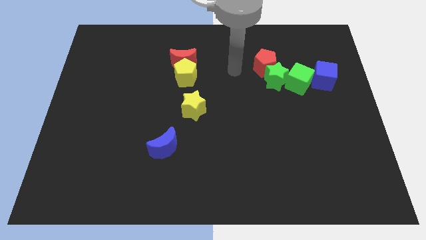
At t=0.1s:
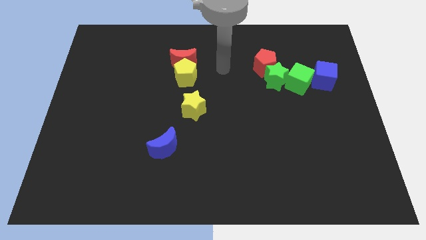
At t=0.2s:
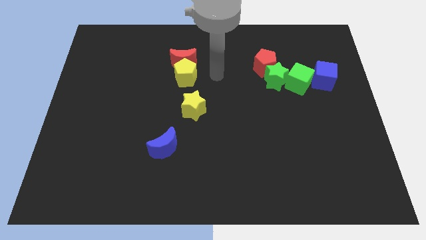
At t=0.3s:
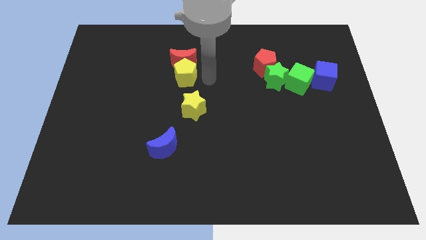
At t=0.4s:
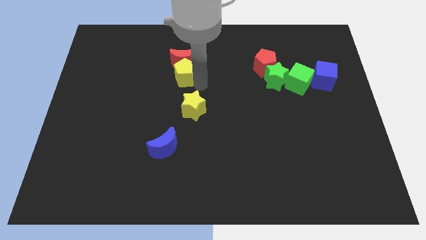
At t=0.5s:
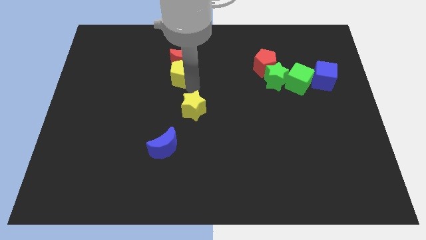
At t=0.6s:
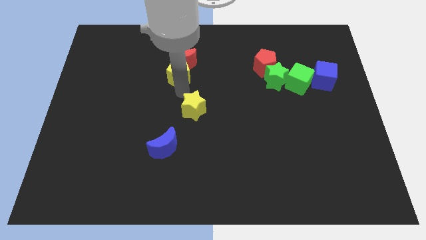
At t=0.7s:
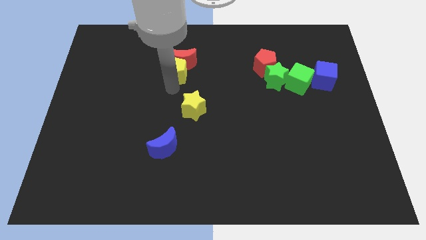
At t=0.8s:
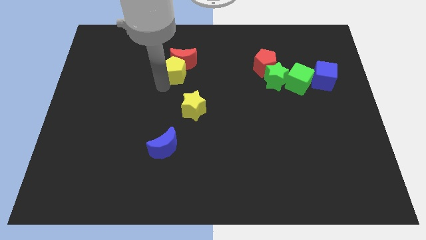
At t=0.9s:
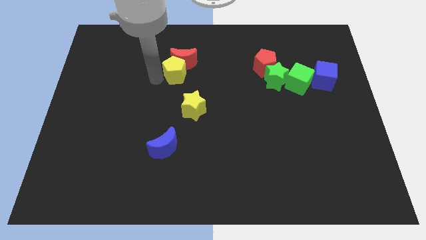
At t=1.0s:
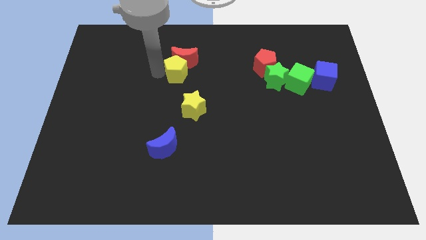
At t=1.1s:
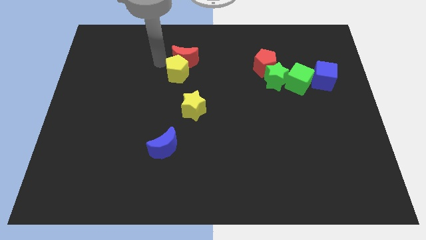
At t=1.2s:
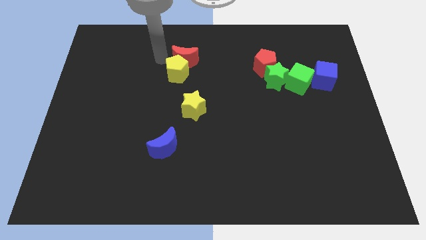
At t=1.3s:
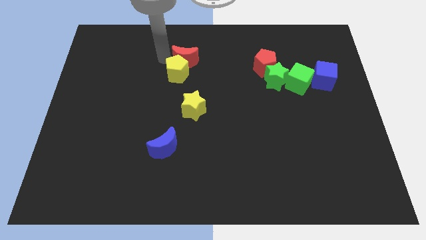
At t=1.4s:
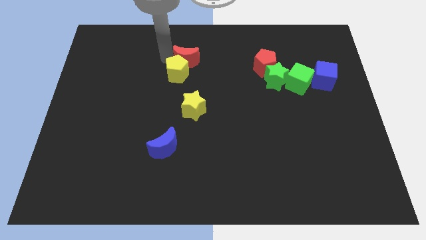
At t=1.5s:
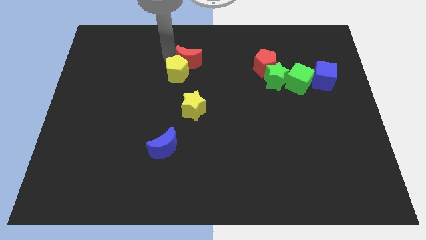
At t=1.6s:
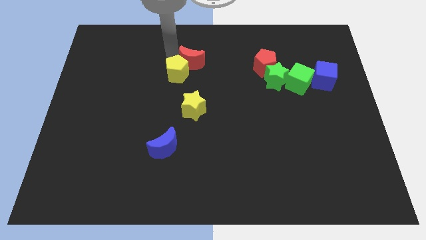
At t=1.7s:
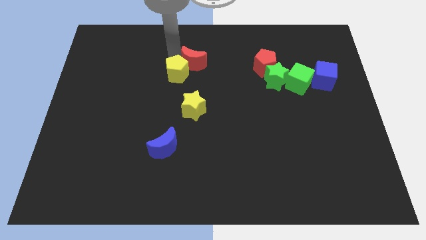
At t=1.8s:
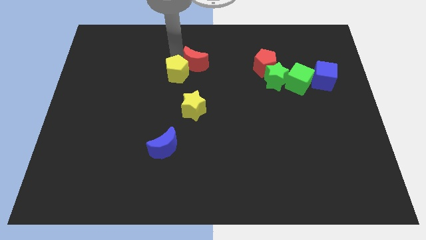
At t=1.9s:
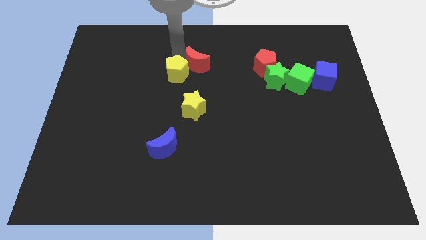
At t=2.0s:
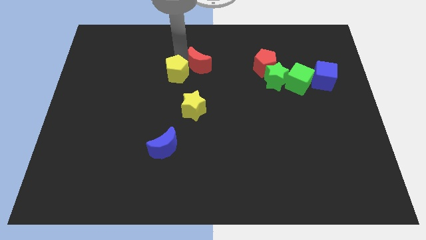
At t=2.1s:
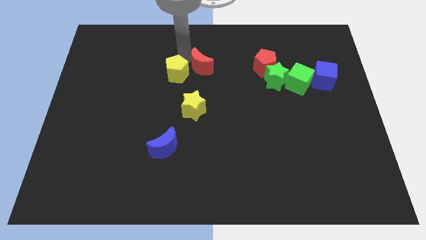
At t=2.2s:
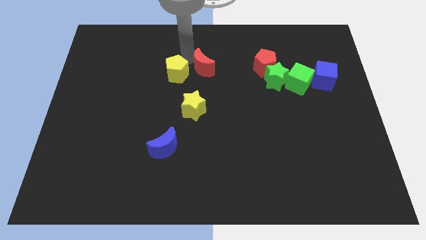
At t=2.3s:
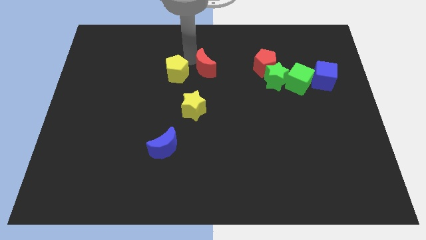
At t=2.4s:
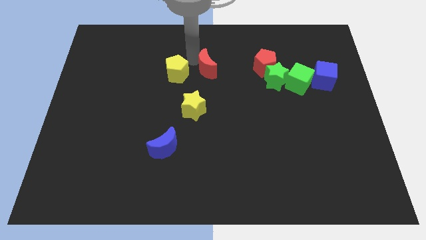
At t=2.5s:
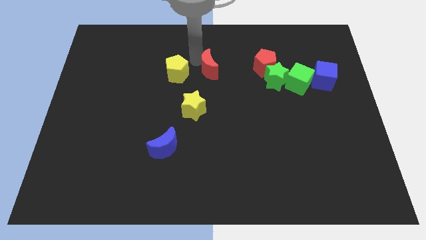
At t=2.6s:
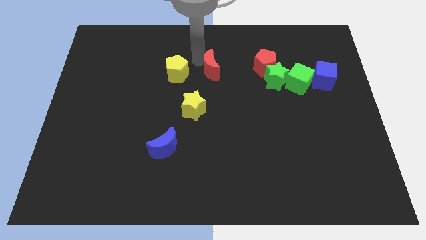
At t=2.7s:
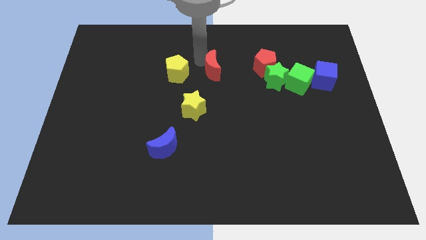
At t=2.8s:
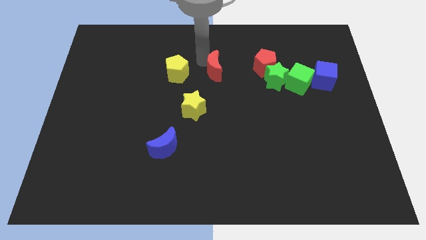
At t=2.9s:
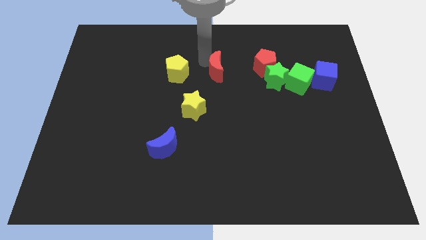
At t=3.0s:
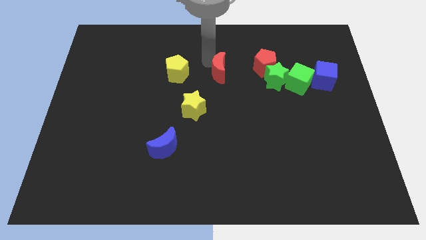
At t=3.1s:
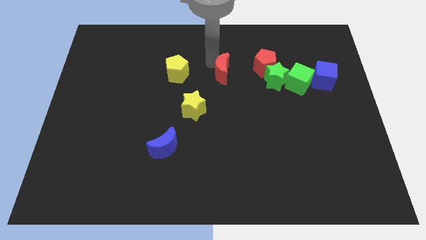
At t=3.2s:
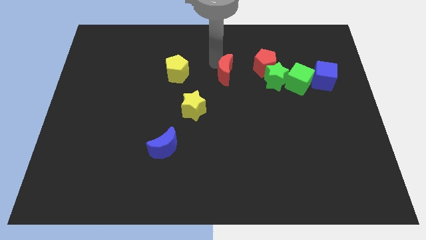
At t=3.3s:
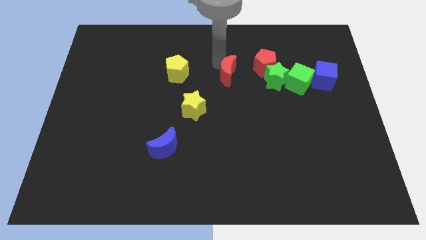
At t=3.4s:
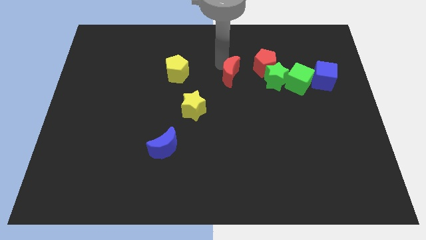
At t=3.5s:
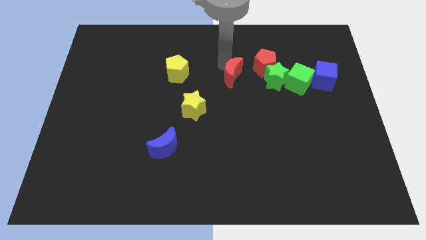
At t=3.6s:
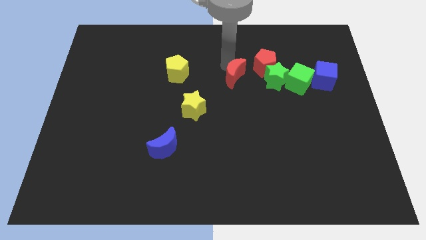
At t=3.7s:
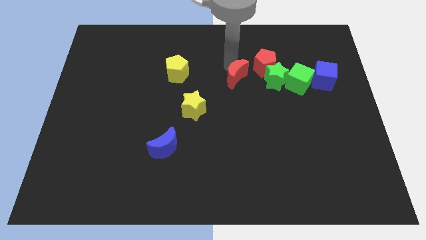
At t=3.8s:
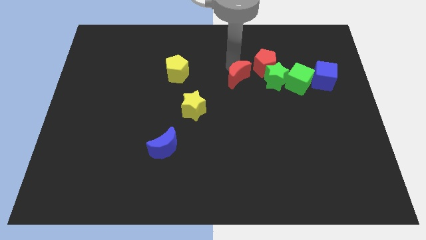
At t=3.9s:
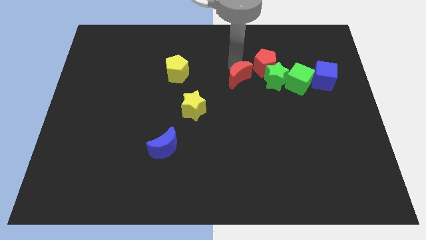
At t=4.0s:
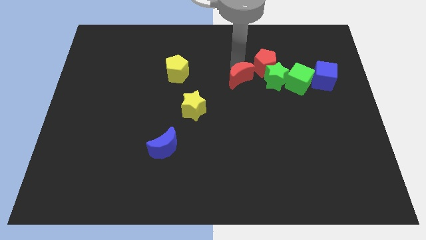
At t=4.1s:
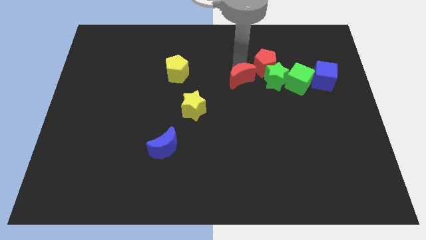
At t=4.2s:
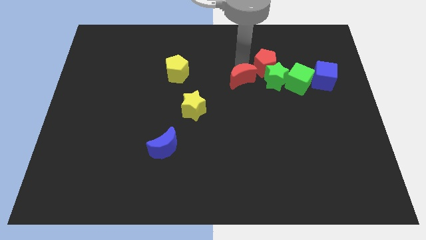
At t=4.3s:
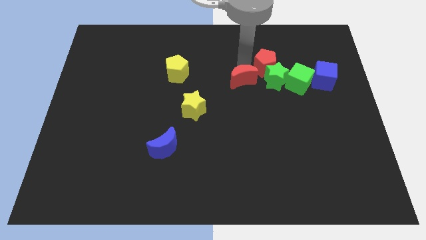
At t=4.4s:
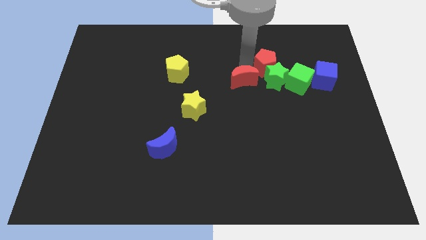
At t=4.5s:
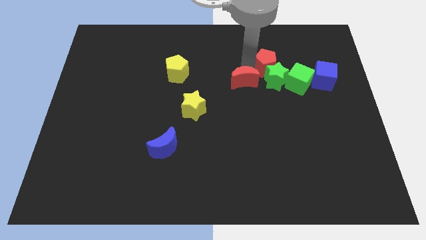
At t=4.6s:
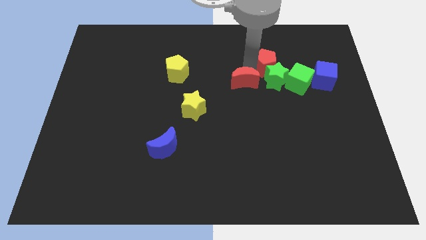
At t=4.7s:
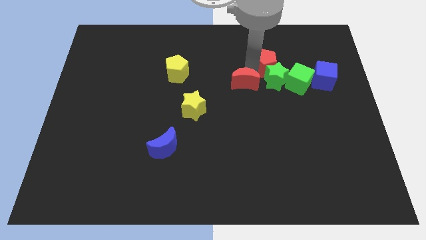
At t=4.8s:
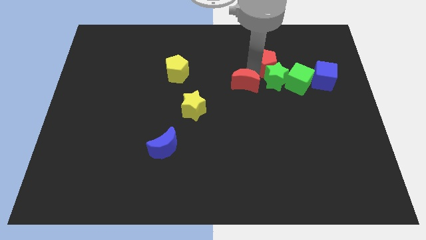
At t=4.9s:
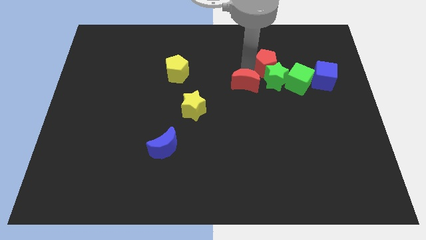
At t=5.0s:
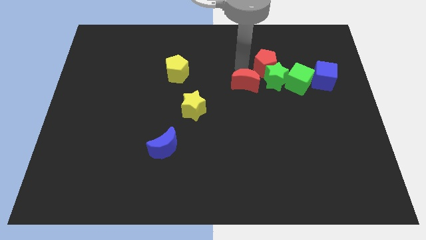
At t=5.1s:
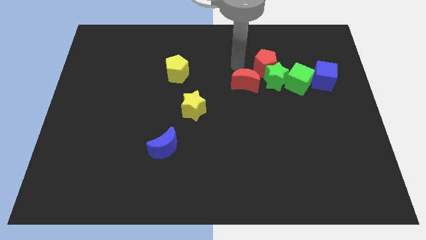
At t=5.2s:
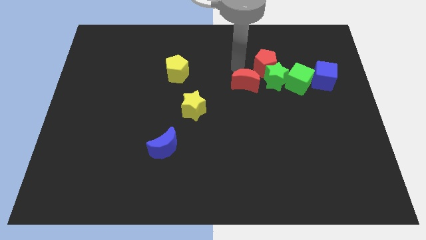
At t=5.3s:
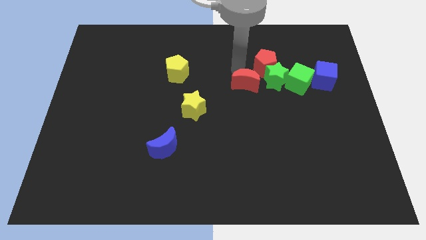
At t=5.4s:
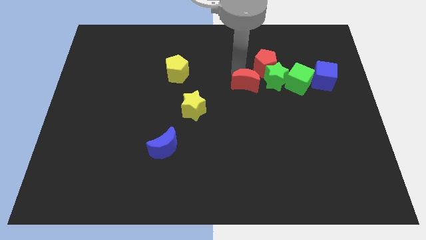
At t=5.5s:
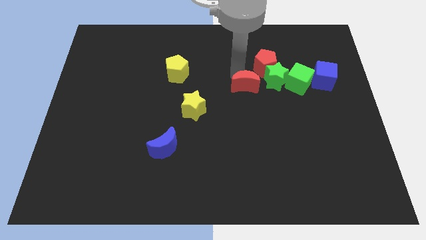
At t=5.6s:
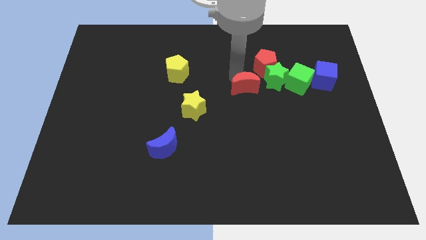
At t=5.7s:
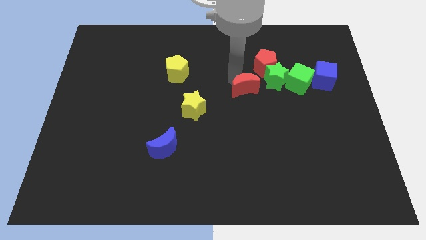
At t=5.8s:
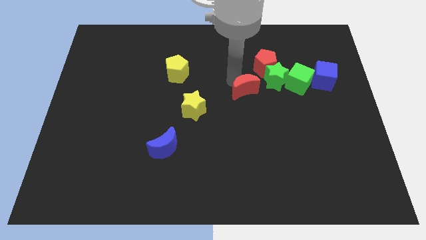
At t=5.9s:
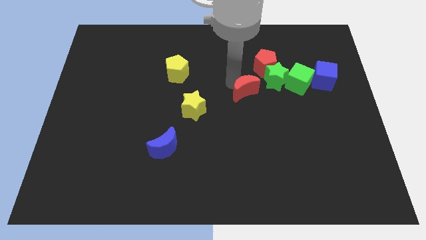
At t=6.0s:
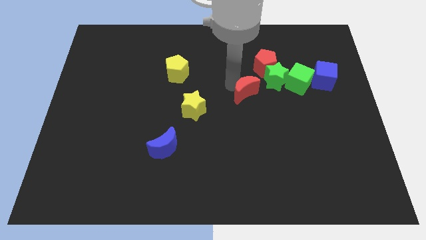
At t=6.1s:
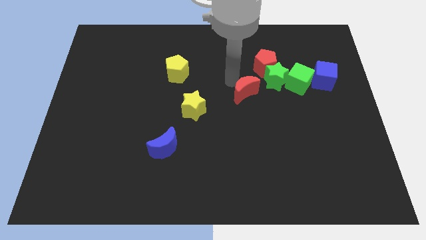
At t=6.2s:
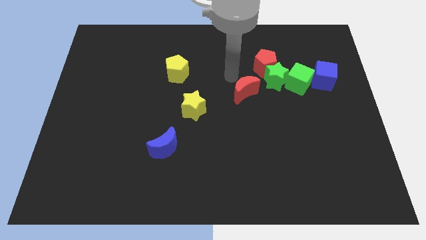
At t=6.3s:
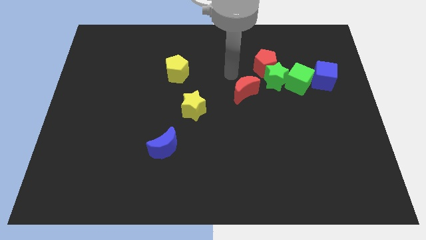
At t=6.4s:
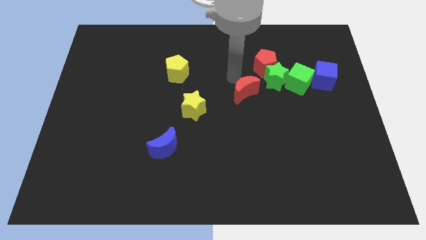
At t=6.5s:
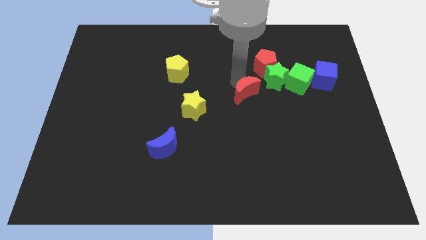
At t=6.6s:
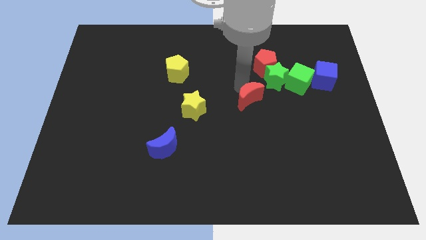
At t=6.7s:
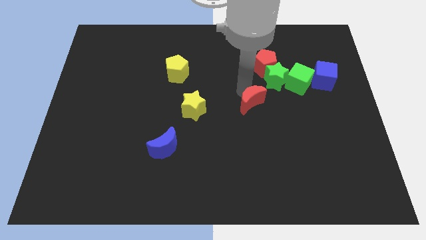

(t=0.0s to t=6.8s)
slide the red moon down and right

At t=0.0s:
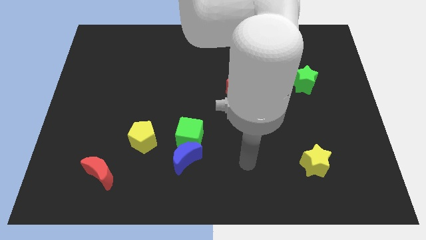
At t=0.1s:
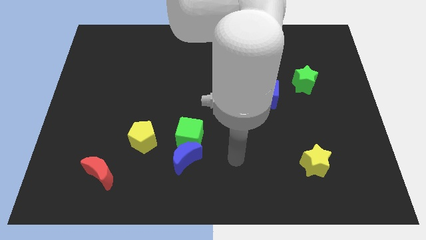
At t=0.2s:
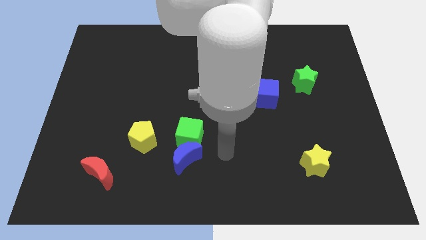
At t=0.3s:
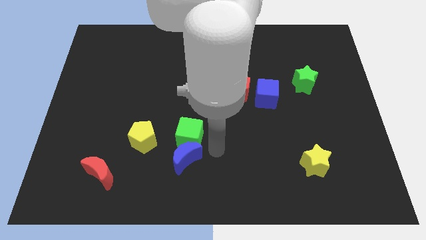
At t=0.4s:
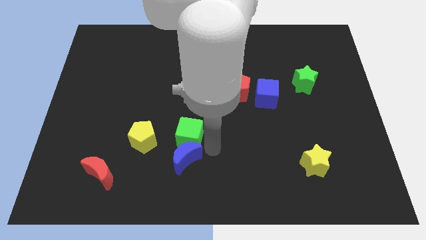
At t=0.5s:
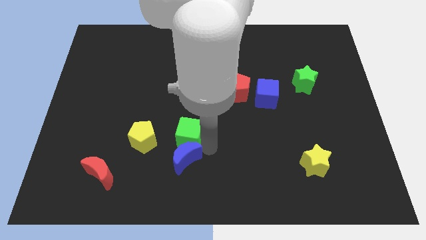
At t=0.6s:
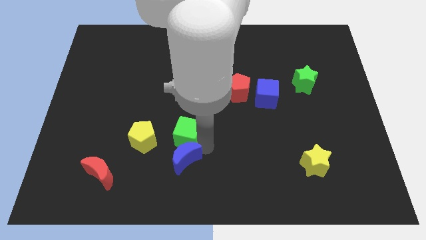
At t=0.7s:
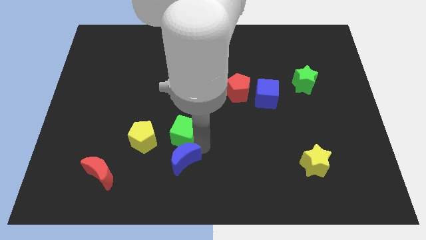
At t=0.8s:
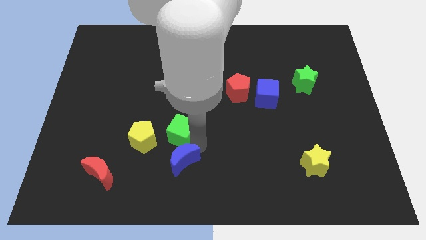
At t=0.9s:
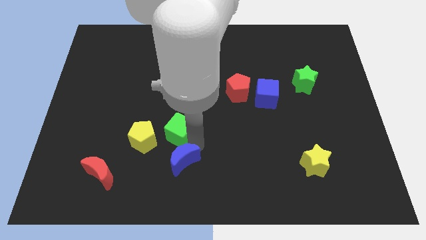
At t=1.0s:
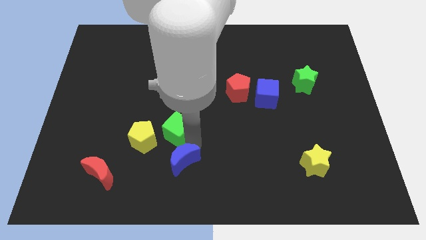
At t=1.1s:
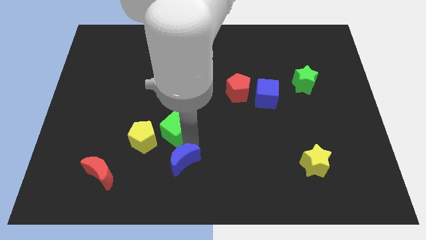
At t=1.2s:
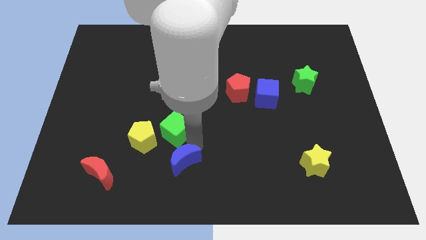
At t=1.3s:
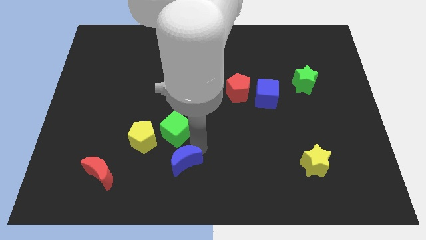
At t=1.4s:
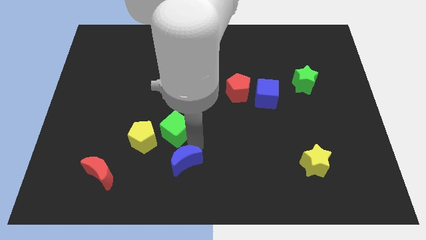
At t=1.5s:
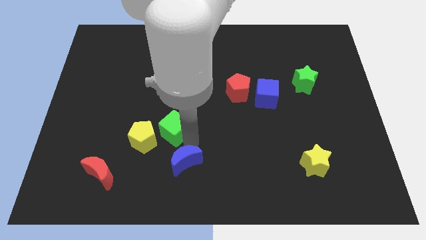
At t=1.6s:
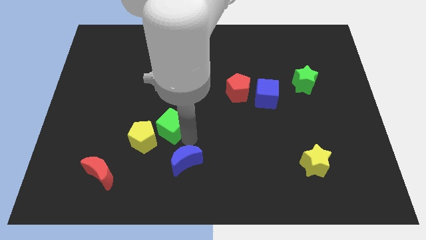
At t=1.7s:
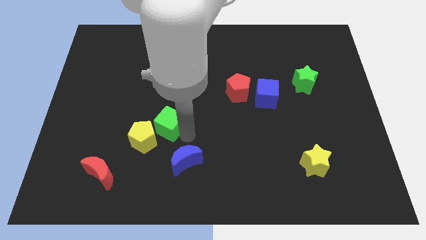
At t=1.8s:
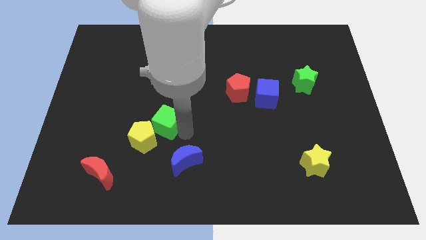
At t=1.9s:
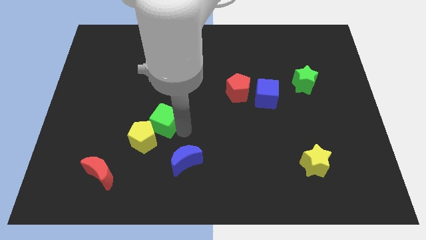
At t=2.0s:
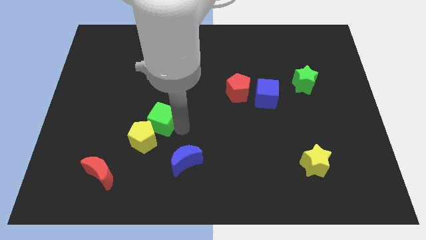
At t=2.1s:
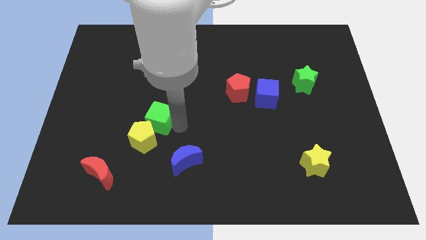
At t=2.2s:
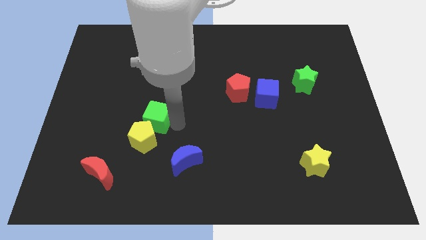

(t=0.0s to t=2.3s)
slightly push the green cube to the left
